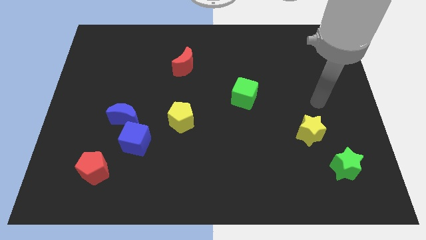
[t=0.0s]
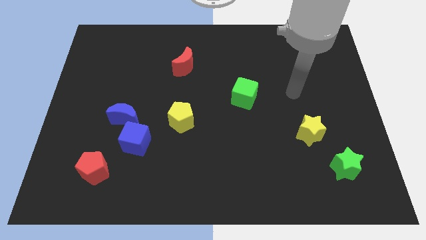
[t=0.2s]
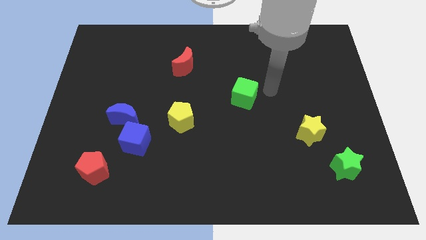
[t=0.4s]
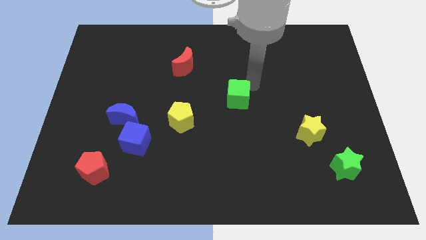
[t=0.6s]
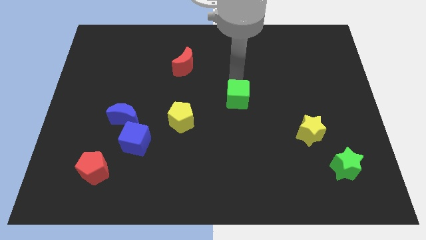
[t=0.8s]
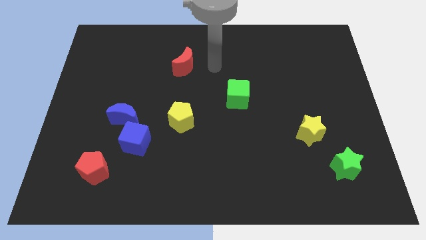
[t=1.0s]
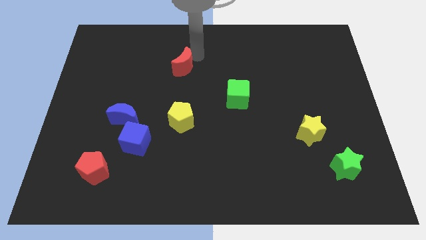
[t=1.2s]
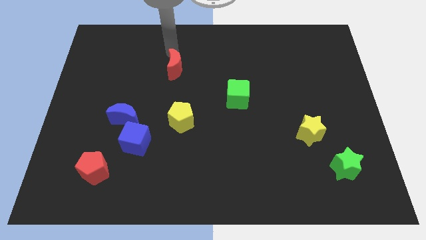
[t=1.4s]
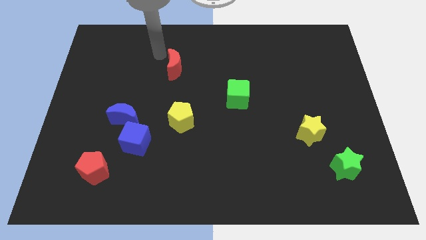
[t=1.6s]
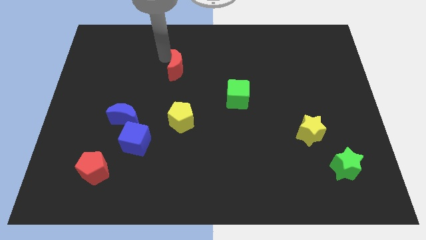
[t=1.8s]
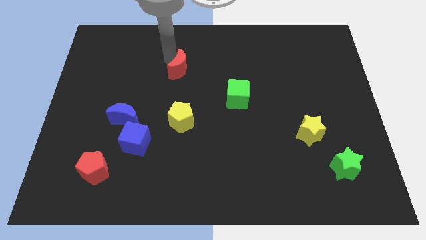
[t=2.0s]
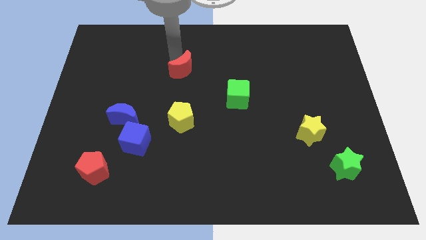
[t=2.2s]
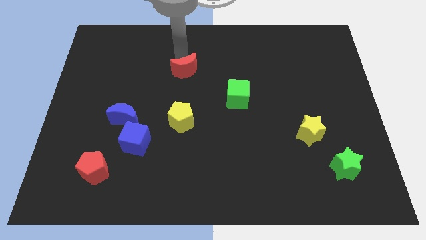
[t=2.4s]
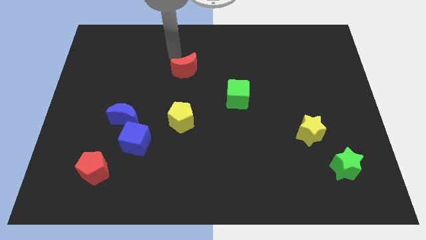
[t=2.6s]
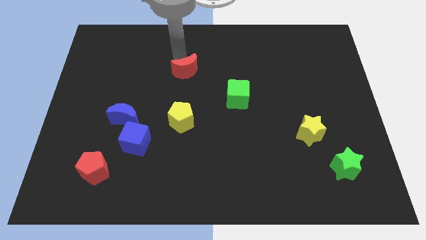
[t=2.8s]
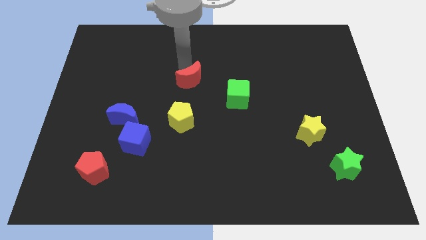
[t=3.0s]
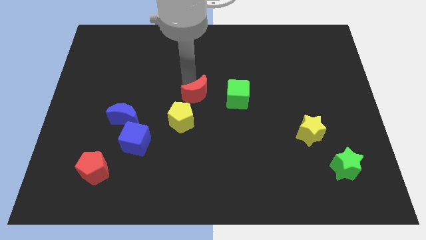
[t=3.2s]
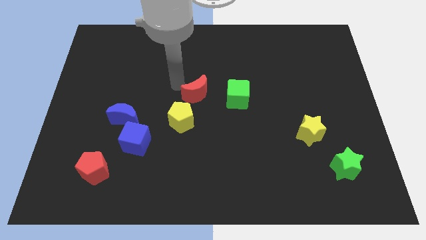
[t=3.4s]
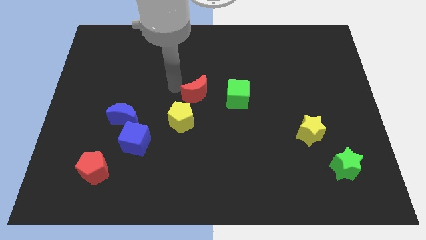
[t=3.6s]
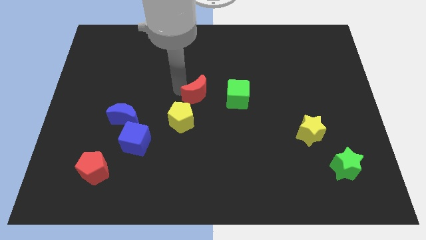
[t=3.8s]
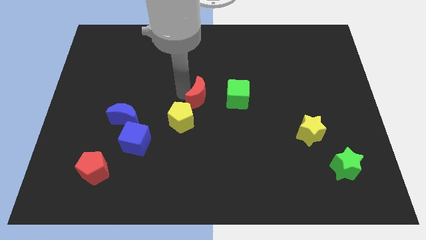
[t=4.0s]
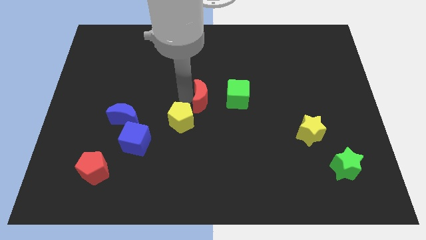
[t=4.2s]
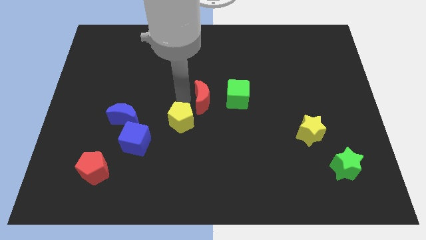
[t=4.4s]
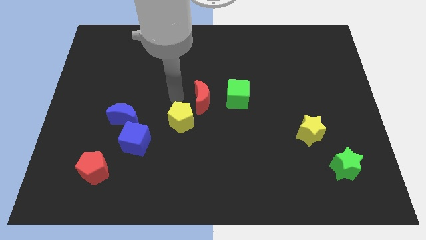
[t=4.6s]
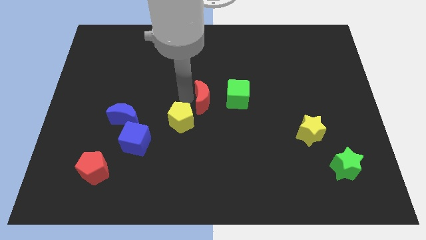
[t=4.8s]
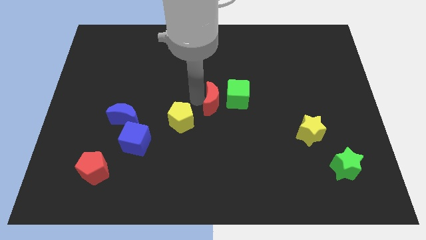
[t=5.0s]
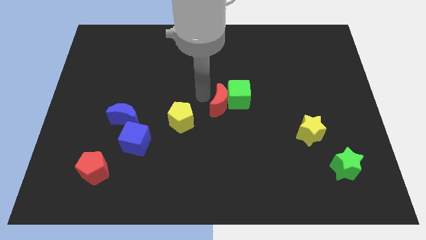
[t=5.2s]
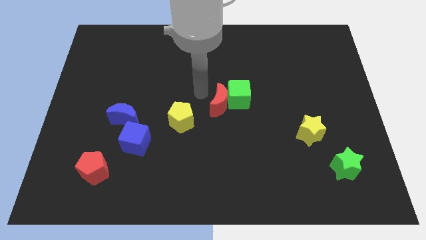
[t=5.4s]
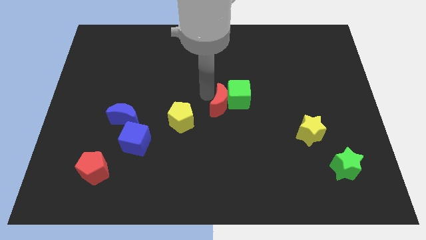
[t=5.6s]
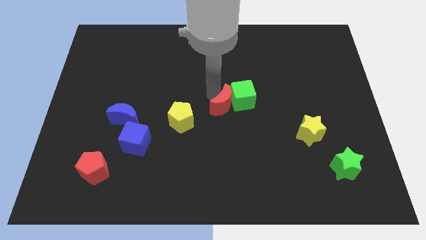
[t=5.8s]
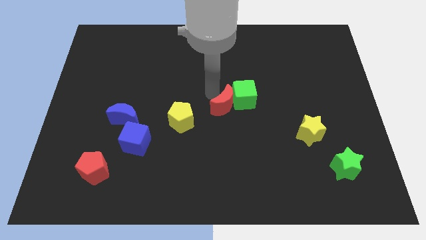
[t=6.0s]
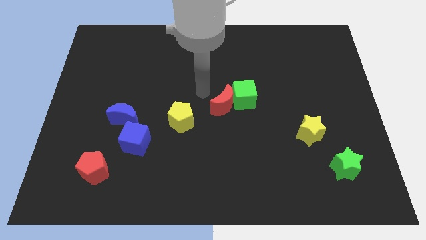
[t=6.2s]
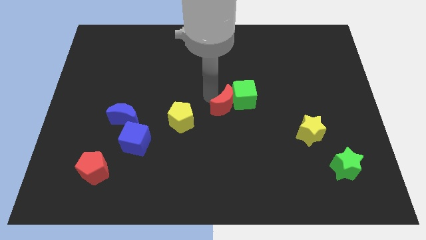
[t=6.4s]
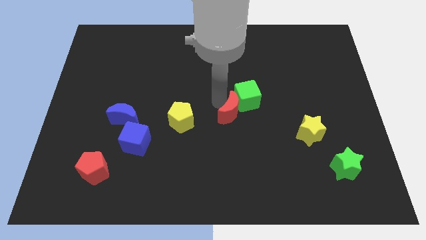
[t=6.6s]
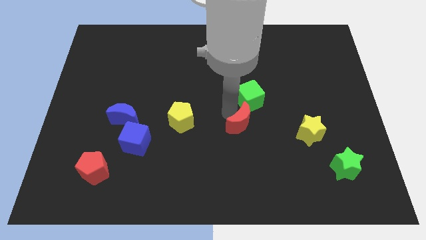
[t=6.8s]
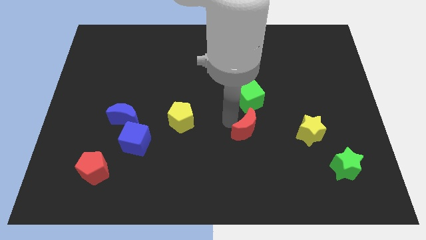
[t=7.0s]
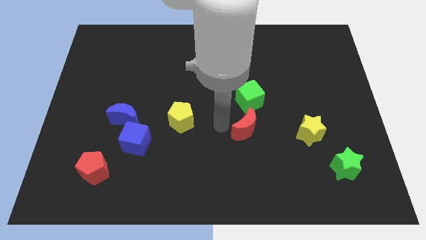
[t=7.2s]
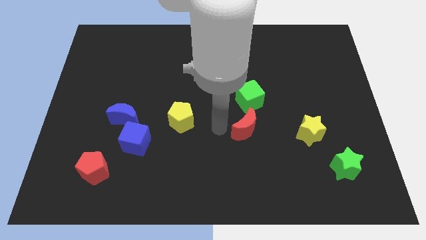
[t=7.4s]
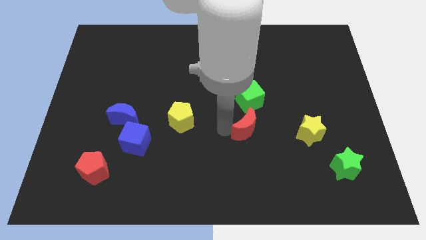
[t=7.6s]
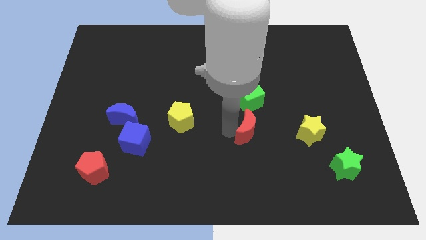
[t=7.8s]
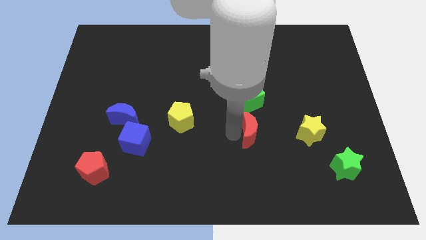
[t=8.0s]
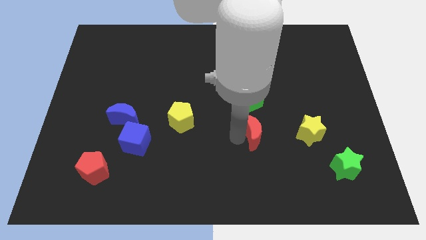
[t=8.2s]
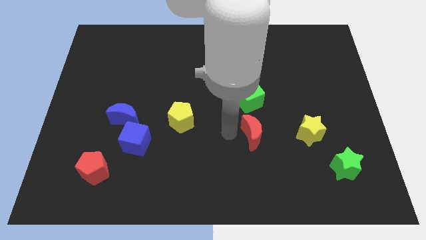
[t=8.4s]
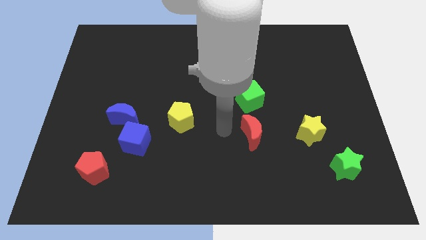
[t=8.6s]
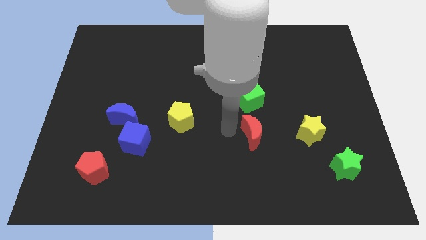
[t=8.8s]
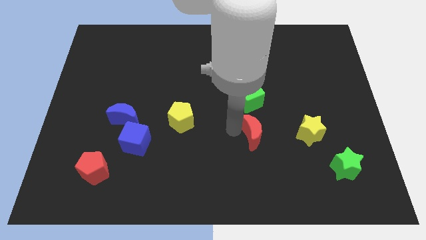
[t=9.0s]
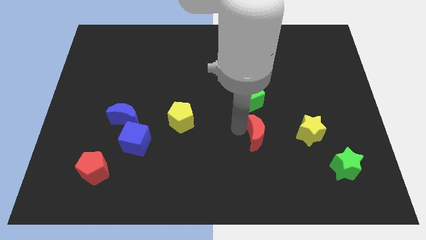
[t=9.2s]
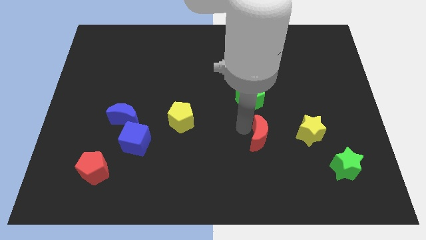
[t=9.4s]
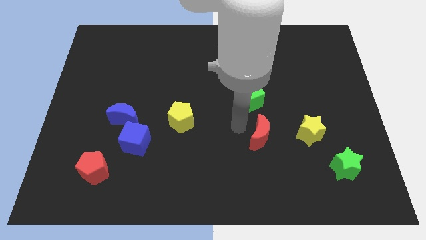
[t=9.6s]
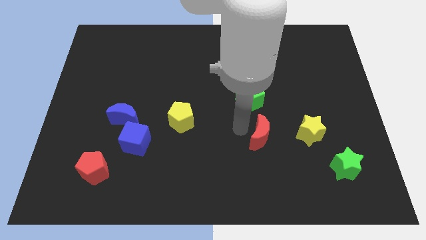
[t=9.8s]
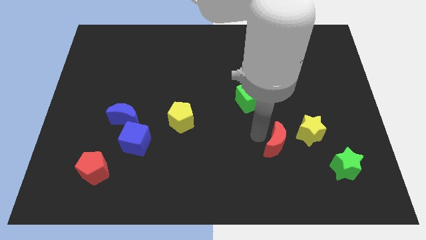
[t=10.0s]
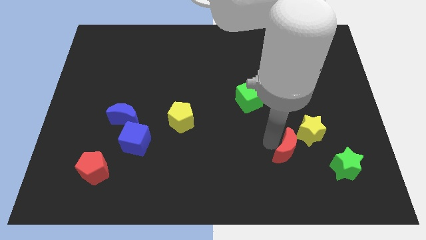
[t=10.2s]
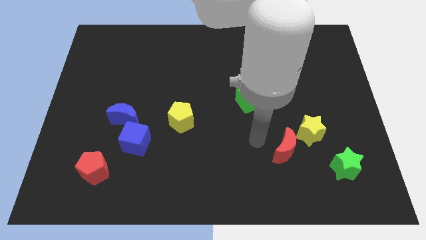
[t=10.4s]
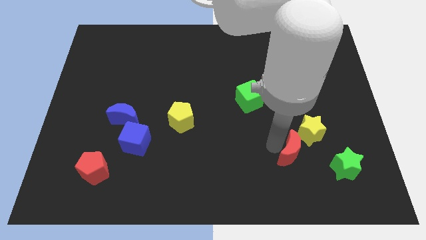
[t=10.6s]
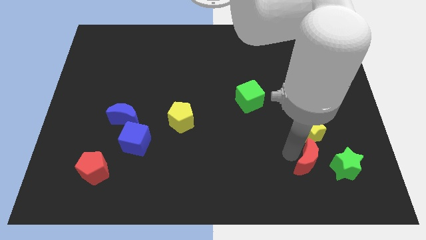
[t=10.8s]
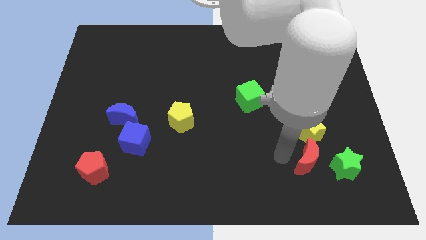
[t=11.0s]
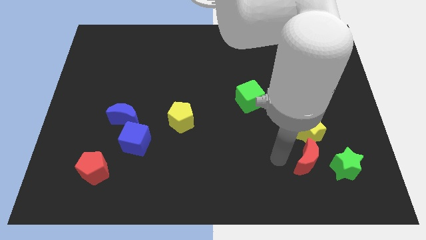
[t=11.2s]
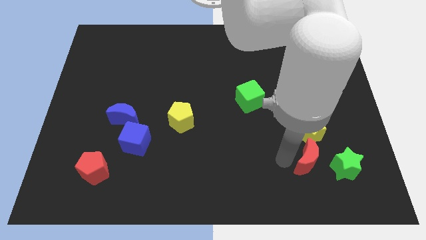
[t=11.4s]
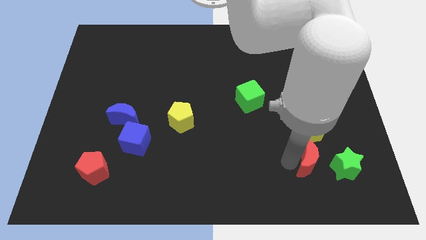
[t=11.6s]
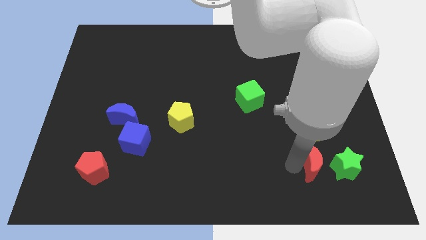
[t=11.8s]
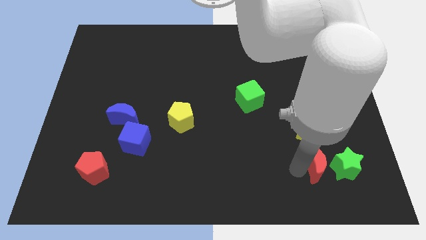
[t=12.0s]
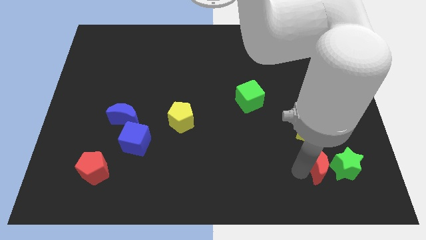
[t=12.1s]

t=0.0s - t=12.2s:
push the red moon towards the green star

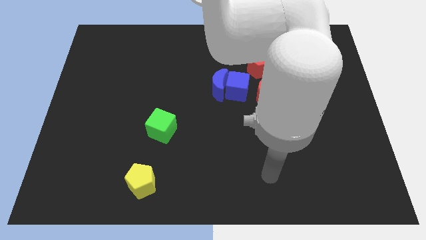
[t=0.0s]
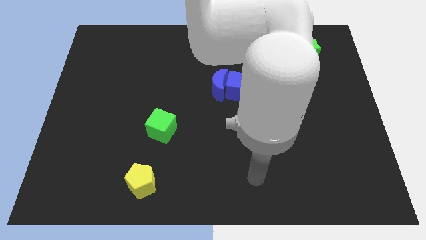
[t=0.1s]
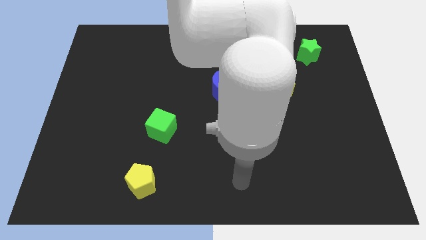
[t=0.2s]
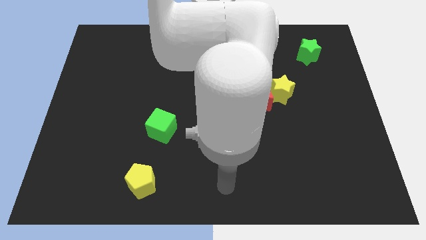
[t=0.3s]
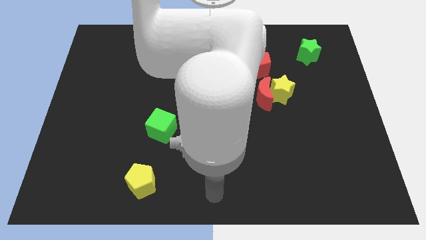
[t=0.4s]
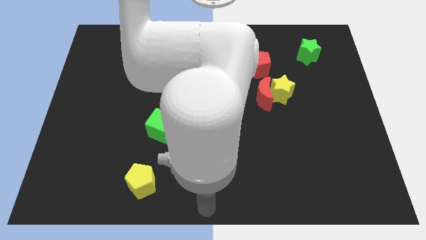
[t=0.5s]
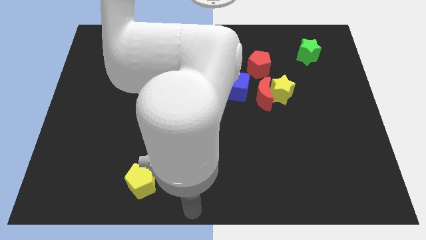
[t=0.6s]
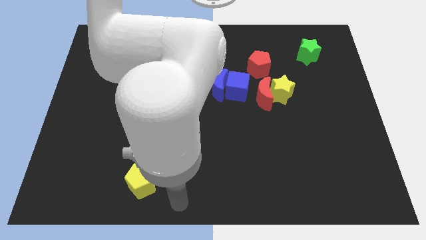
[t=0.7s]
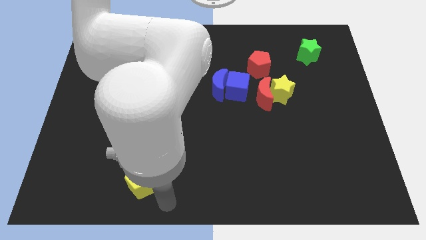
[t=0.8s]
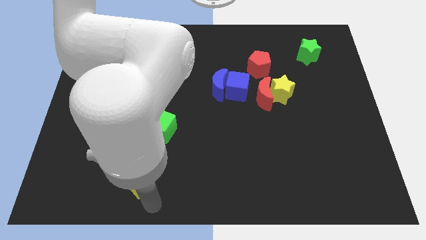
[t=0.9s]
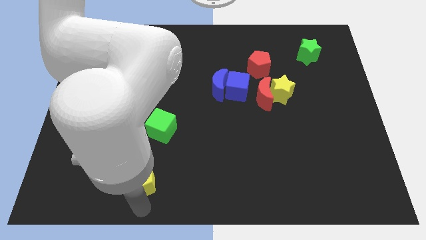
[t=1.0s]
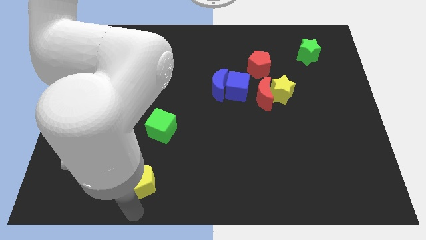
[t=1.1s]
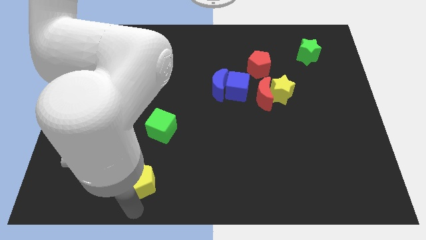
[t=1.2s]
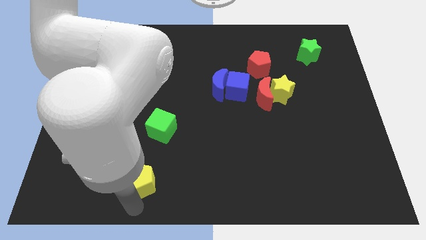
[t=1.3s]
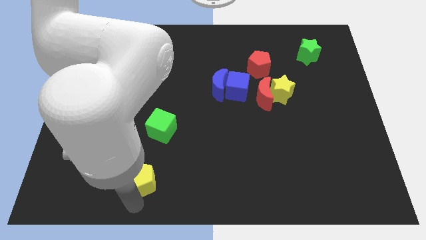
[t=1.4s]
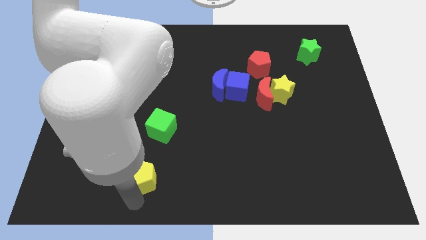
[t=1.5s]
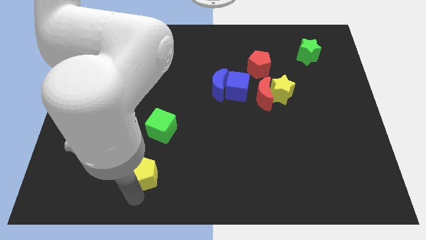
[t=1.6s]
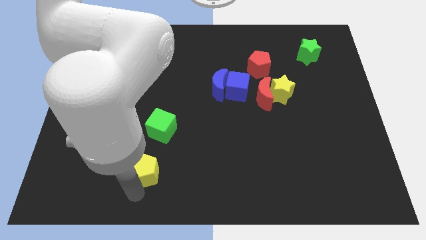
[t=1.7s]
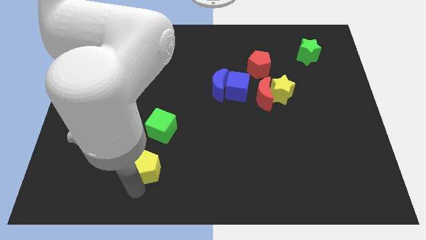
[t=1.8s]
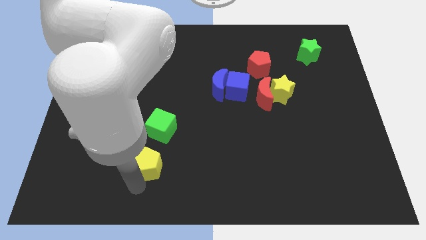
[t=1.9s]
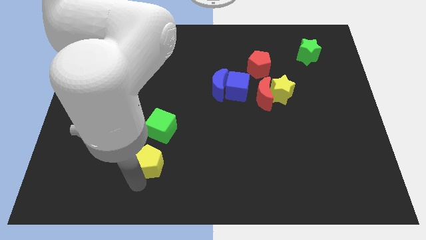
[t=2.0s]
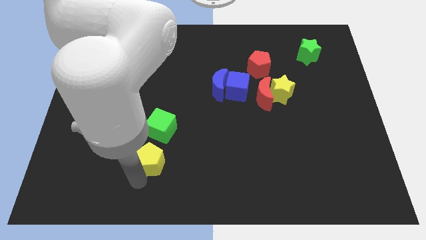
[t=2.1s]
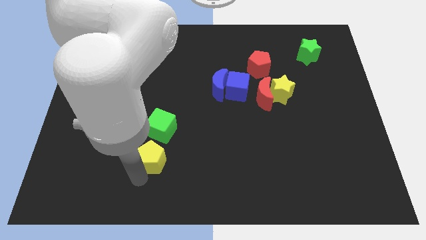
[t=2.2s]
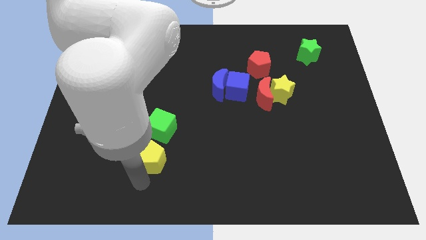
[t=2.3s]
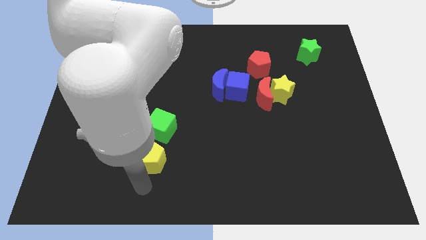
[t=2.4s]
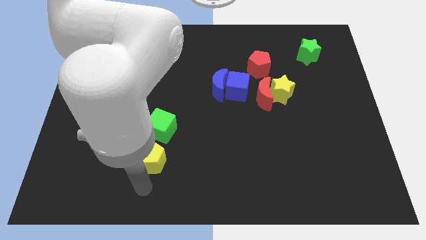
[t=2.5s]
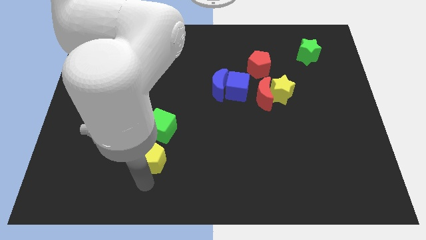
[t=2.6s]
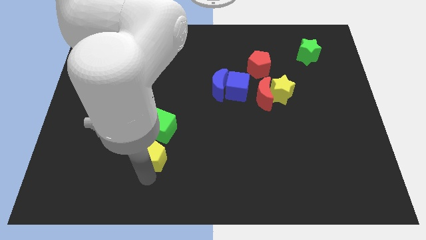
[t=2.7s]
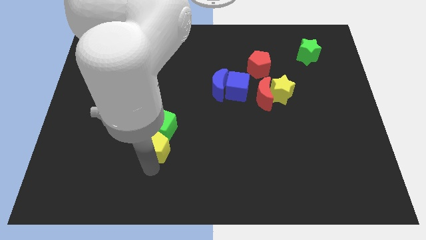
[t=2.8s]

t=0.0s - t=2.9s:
move the yellow pentagon next to the green cube
